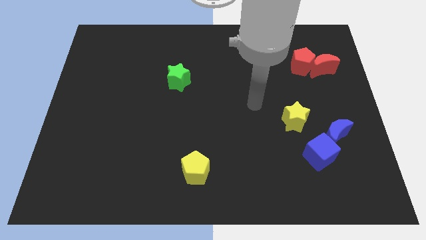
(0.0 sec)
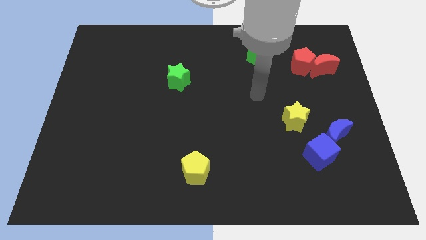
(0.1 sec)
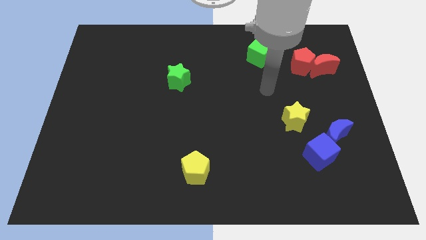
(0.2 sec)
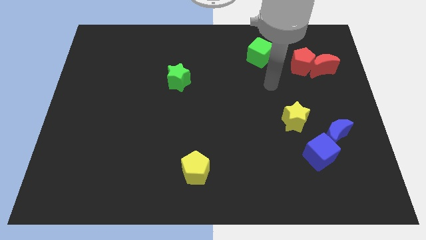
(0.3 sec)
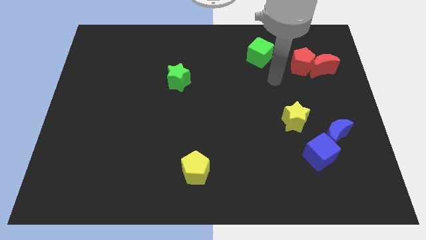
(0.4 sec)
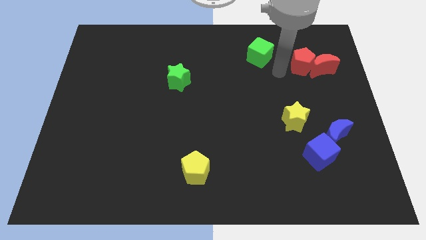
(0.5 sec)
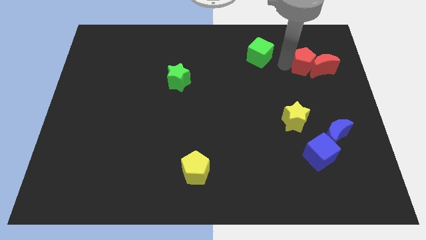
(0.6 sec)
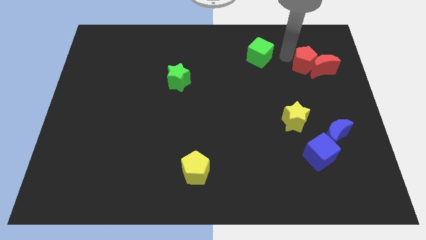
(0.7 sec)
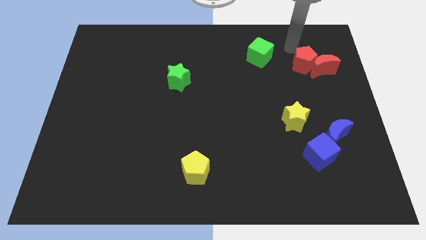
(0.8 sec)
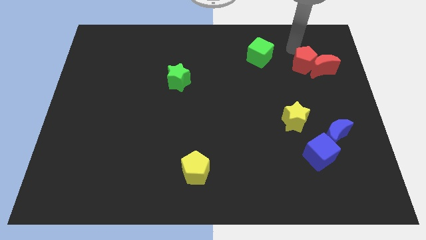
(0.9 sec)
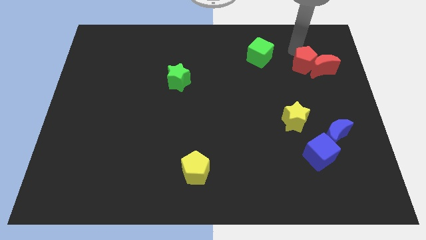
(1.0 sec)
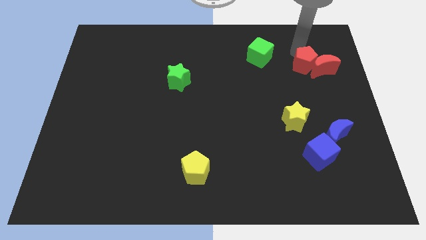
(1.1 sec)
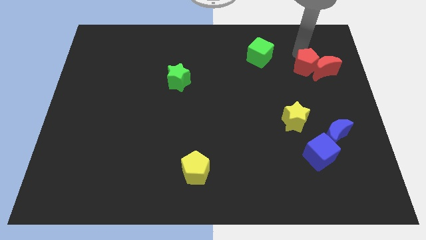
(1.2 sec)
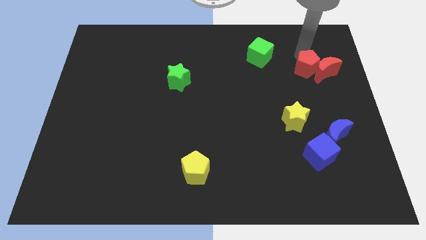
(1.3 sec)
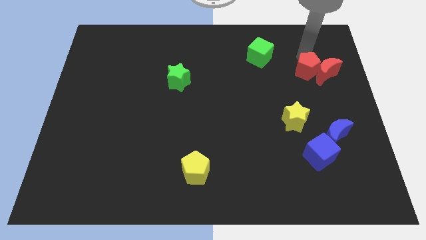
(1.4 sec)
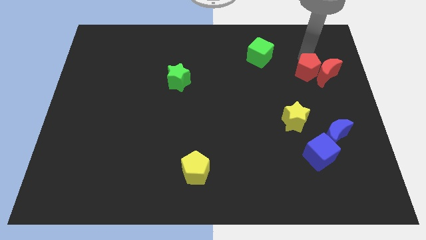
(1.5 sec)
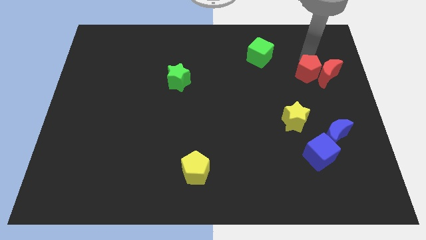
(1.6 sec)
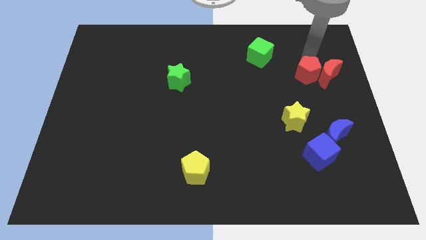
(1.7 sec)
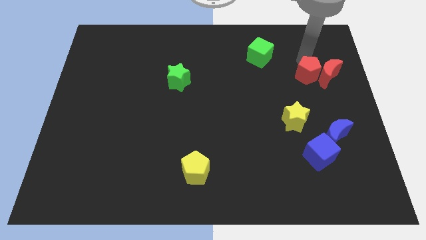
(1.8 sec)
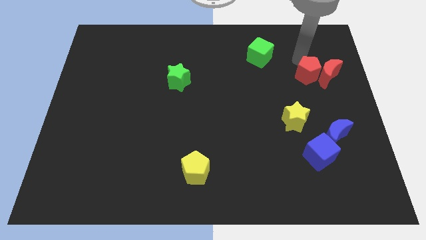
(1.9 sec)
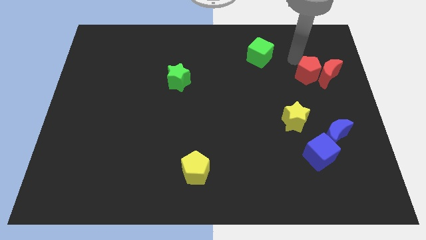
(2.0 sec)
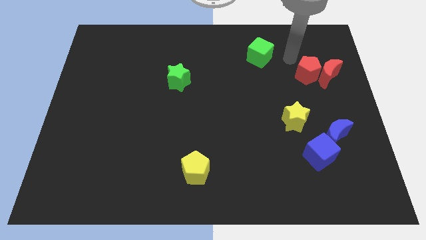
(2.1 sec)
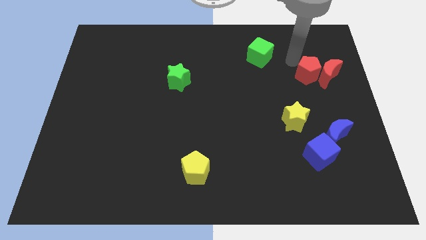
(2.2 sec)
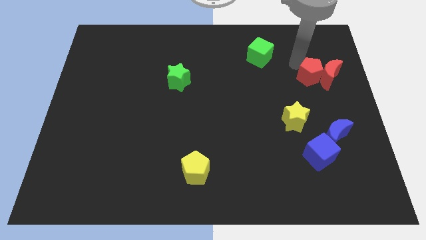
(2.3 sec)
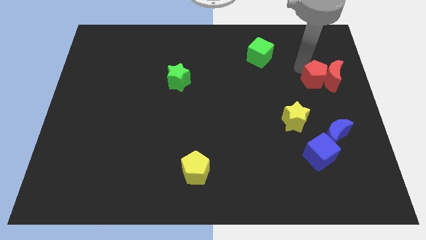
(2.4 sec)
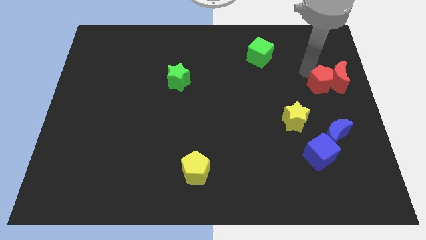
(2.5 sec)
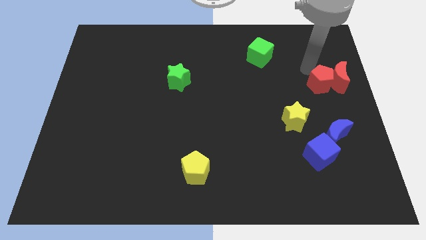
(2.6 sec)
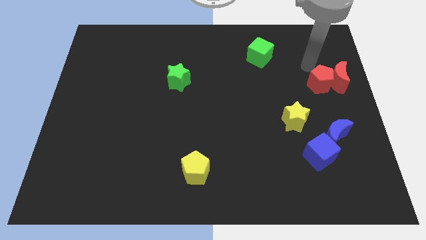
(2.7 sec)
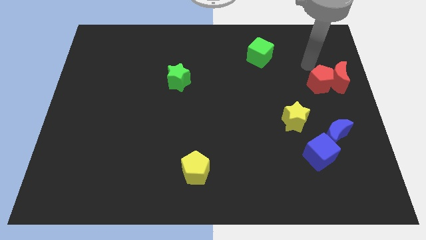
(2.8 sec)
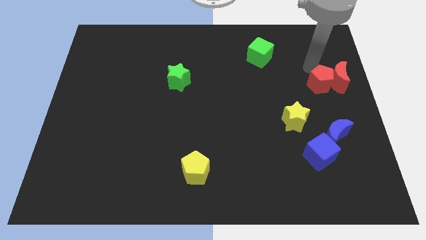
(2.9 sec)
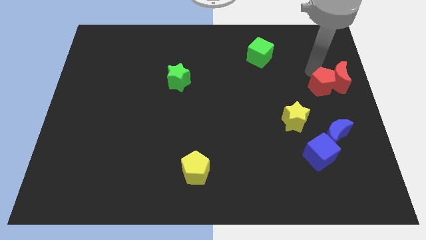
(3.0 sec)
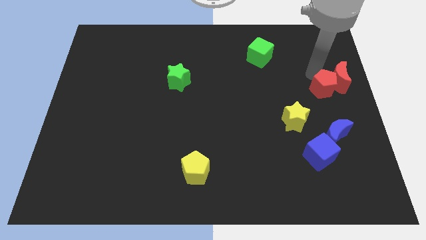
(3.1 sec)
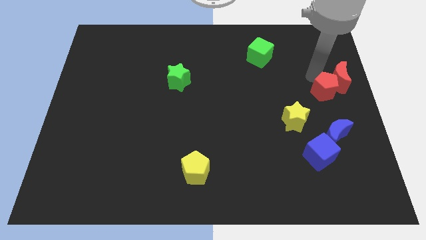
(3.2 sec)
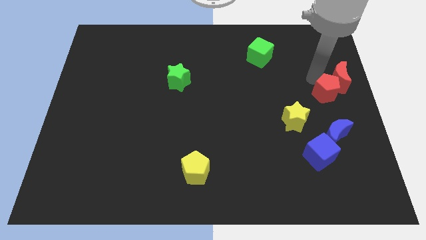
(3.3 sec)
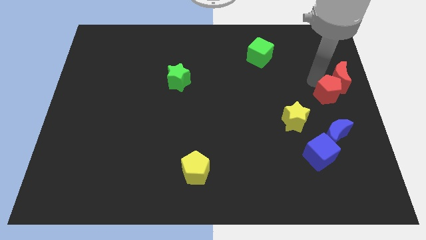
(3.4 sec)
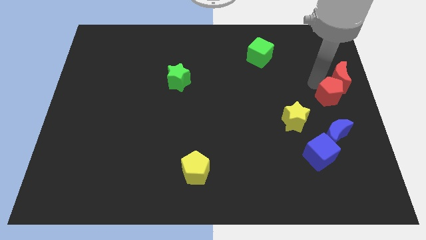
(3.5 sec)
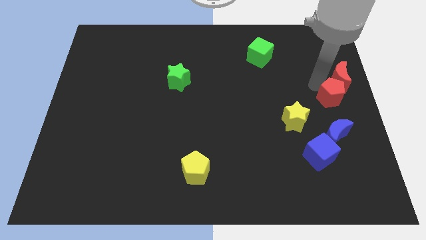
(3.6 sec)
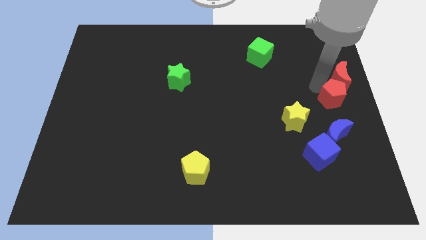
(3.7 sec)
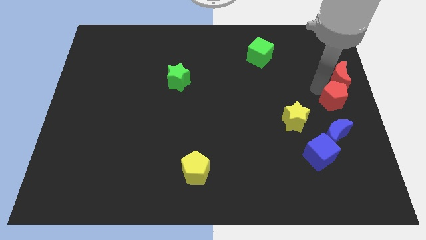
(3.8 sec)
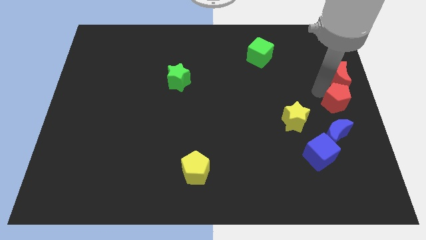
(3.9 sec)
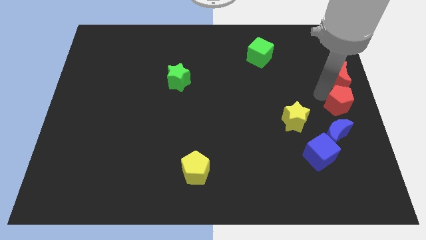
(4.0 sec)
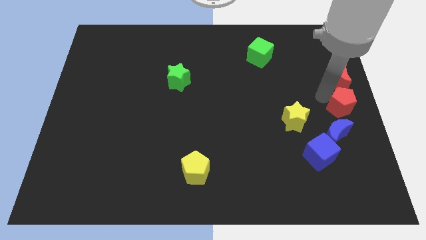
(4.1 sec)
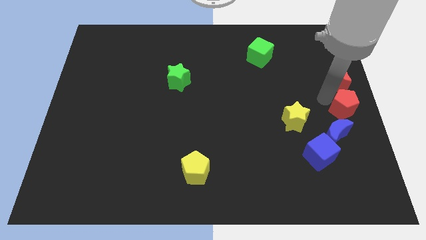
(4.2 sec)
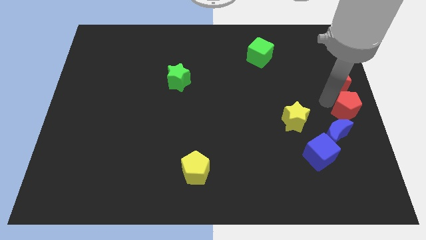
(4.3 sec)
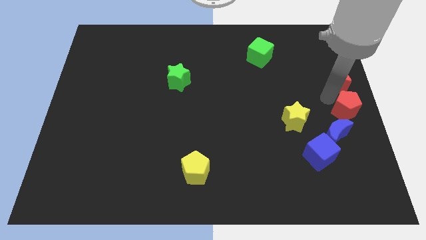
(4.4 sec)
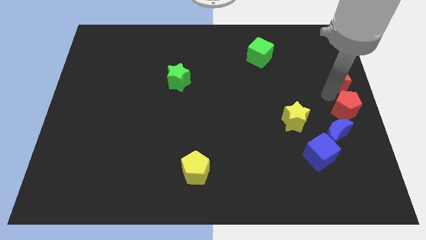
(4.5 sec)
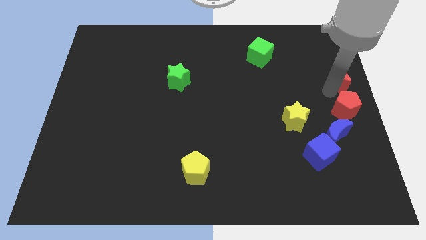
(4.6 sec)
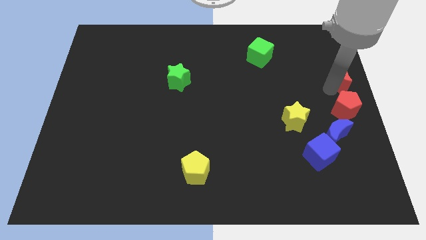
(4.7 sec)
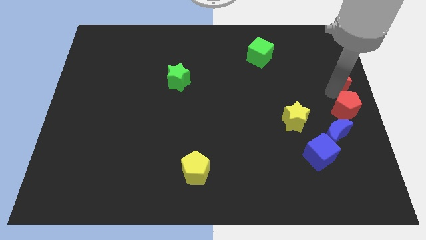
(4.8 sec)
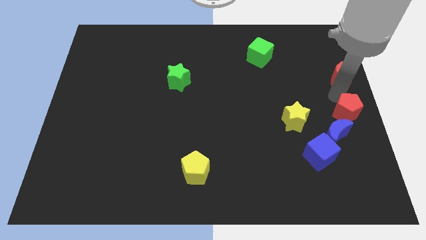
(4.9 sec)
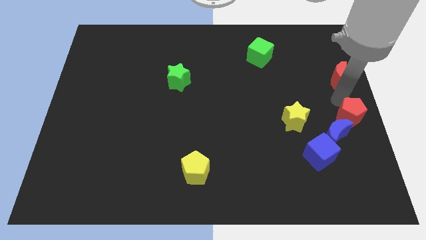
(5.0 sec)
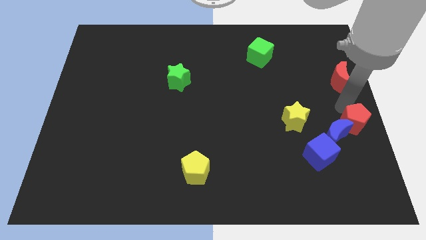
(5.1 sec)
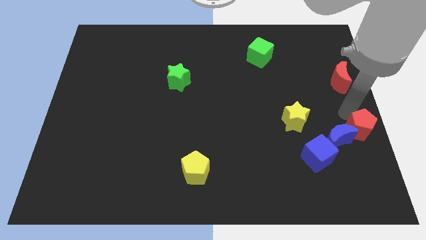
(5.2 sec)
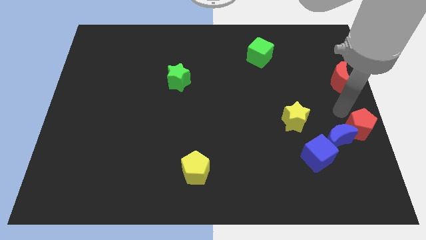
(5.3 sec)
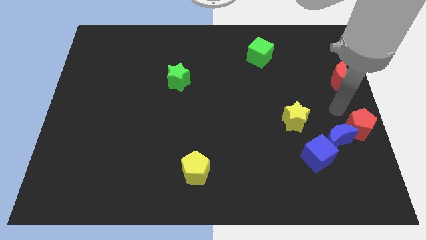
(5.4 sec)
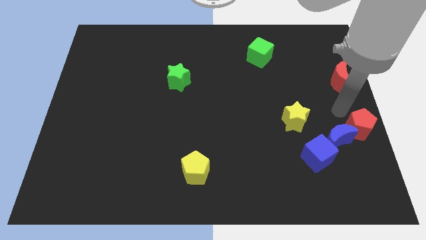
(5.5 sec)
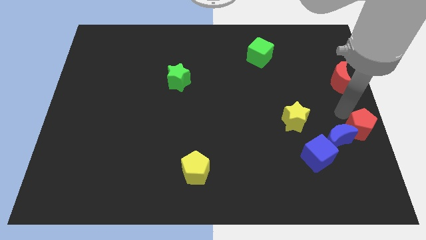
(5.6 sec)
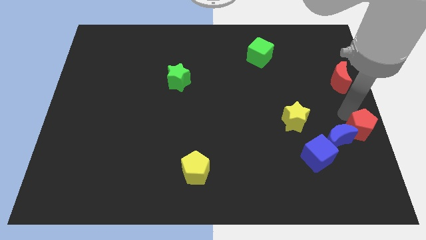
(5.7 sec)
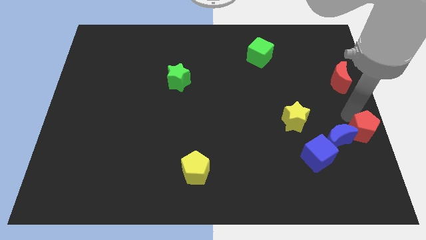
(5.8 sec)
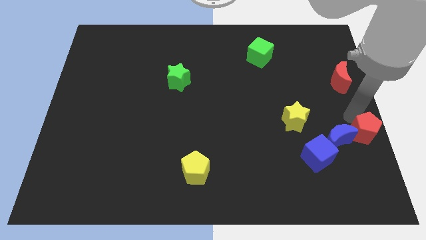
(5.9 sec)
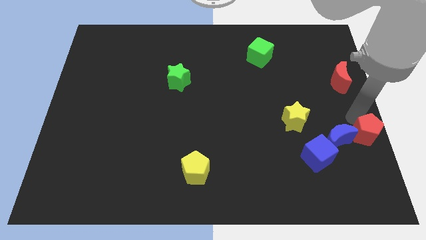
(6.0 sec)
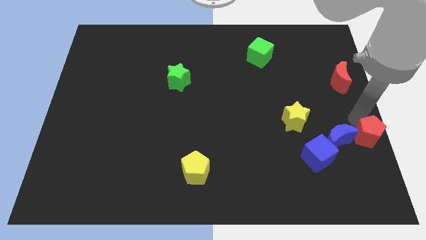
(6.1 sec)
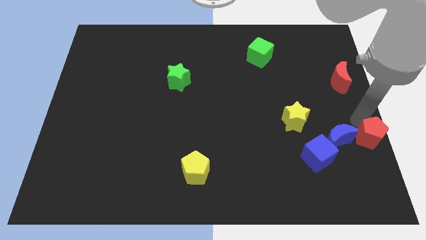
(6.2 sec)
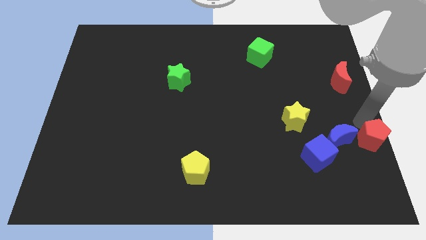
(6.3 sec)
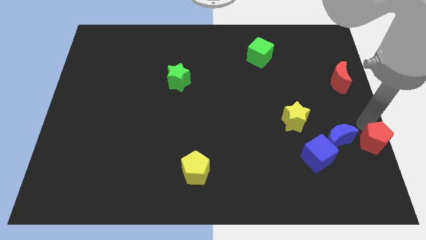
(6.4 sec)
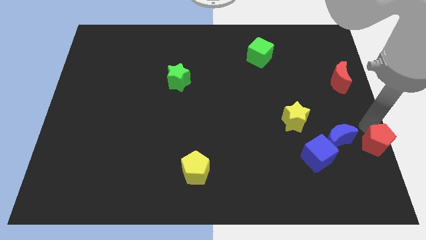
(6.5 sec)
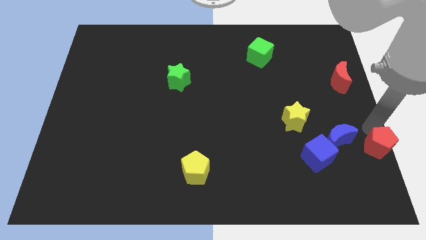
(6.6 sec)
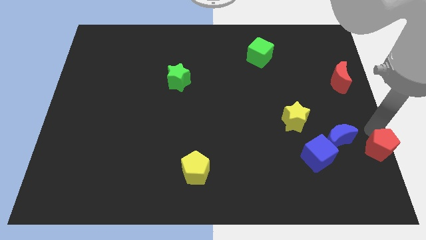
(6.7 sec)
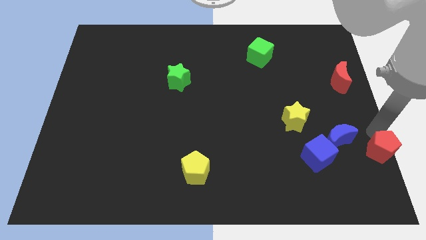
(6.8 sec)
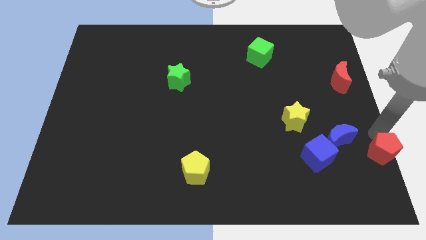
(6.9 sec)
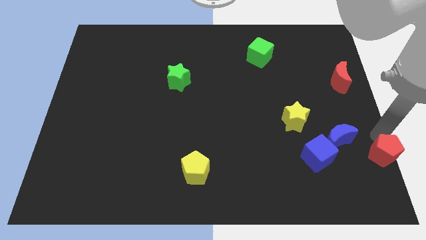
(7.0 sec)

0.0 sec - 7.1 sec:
put the red pentagon to the lower right corner

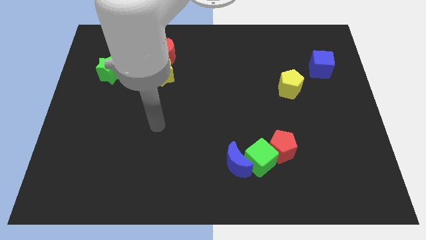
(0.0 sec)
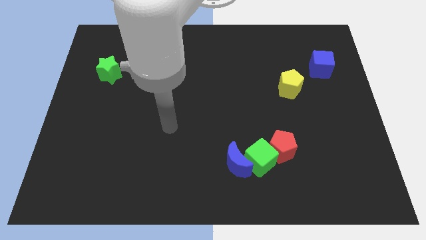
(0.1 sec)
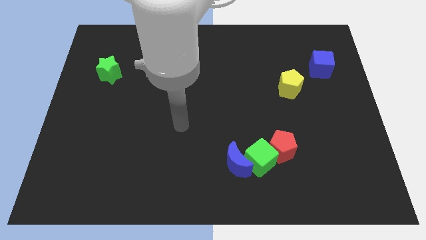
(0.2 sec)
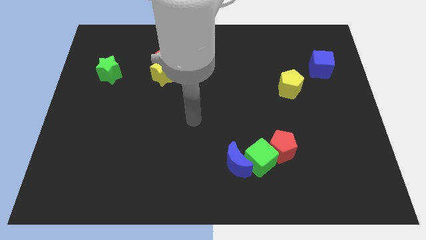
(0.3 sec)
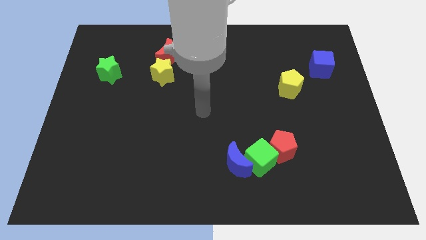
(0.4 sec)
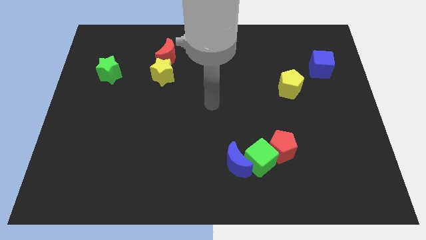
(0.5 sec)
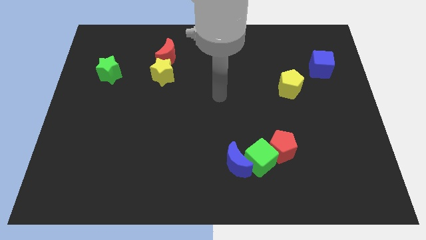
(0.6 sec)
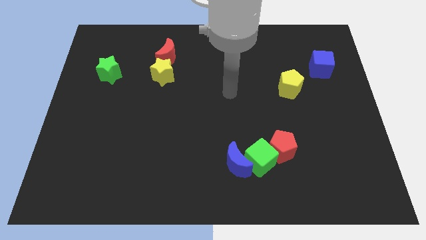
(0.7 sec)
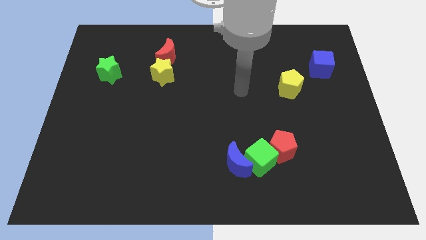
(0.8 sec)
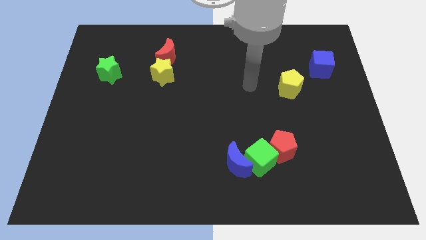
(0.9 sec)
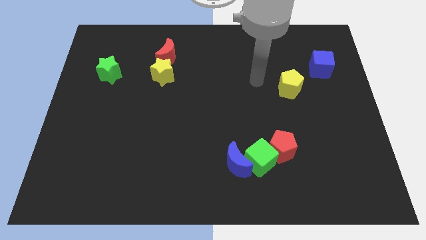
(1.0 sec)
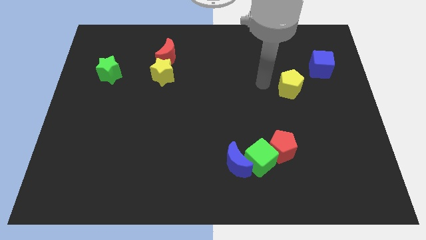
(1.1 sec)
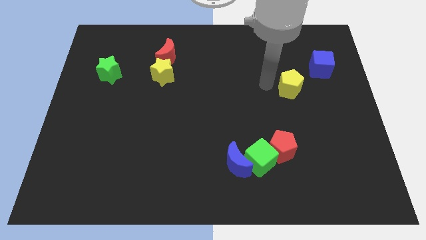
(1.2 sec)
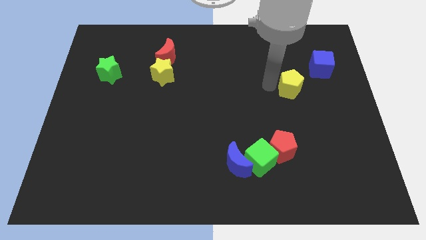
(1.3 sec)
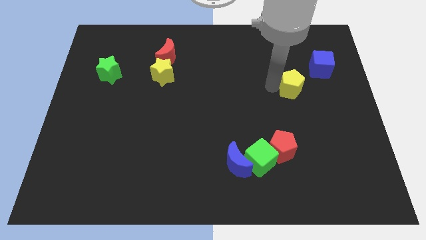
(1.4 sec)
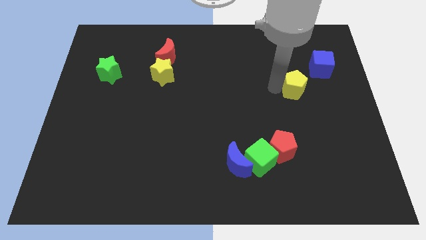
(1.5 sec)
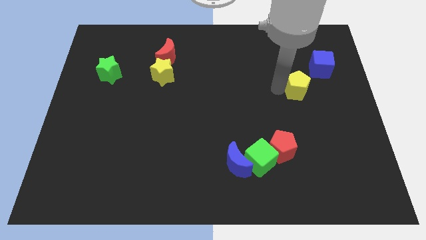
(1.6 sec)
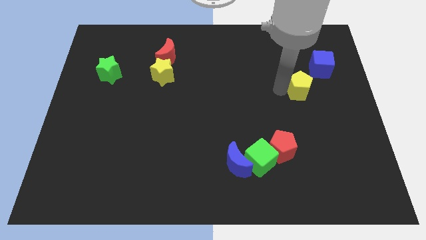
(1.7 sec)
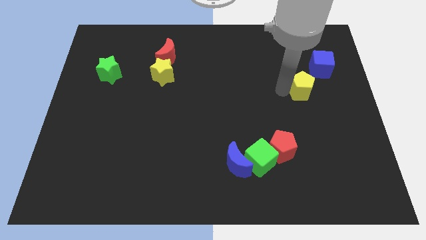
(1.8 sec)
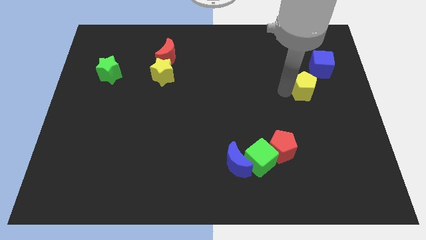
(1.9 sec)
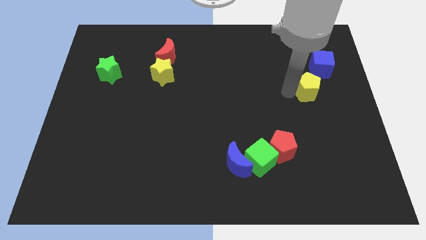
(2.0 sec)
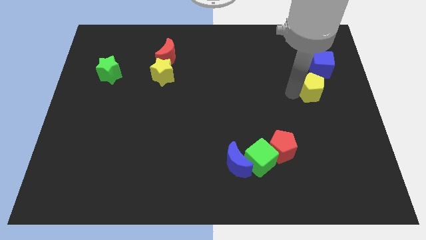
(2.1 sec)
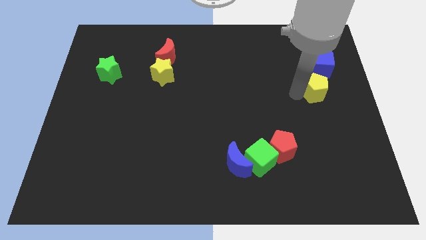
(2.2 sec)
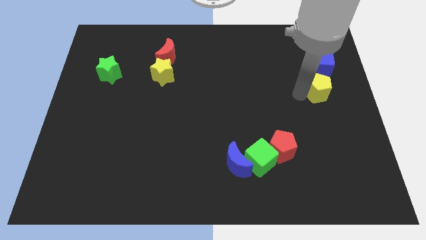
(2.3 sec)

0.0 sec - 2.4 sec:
slide the yellow pentagon to the right side
